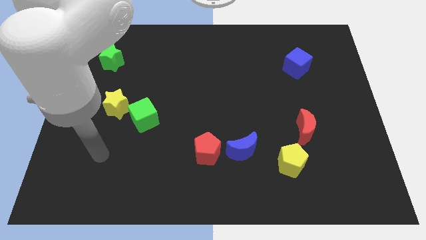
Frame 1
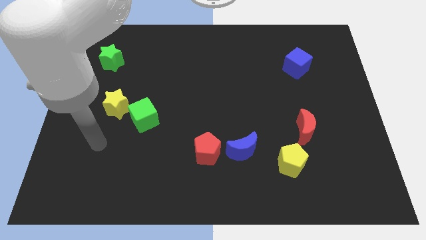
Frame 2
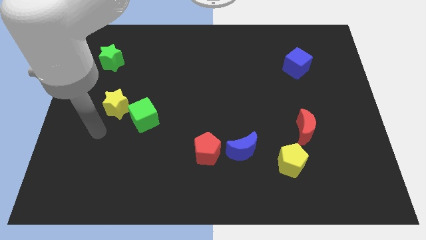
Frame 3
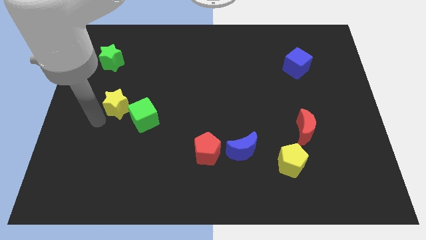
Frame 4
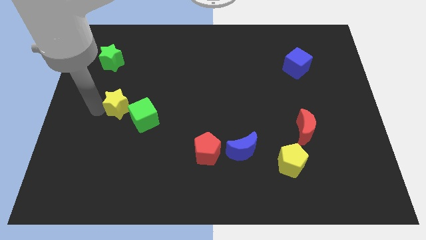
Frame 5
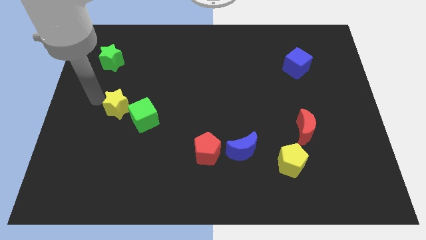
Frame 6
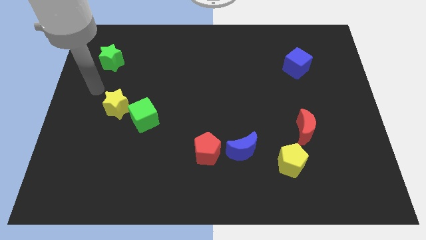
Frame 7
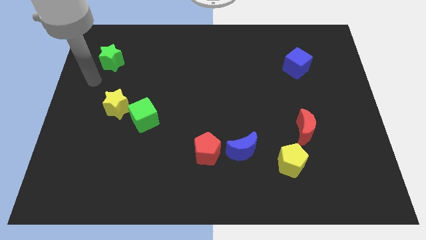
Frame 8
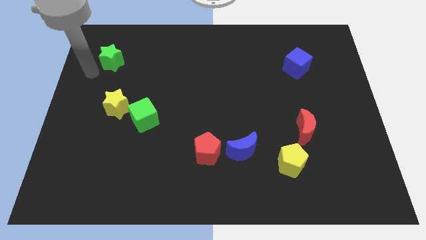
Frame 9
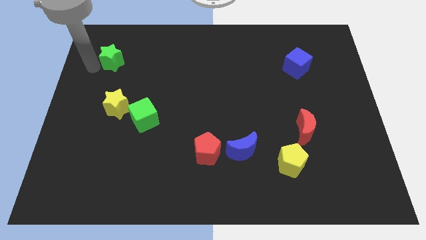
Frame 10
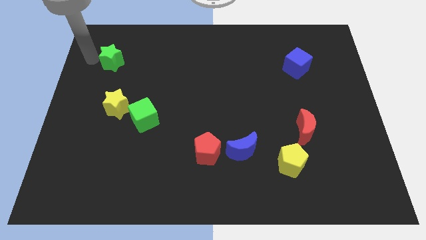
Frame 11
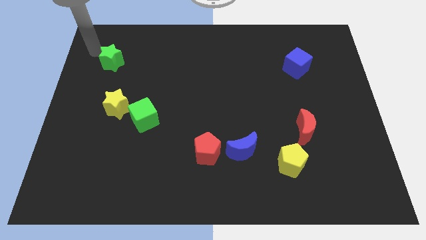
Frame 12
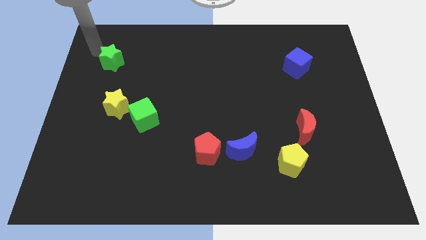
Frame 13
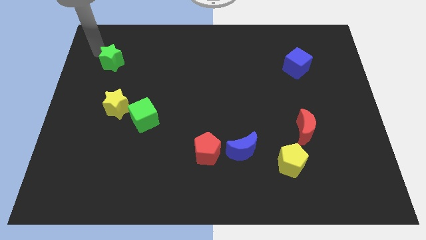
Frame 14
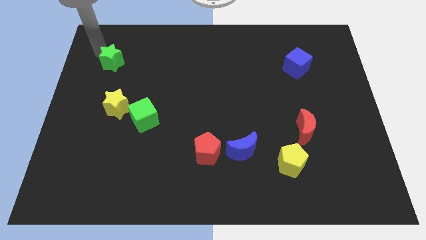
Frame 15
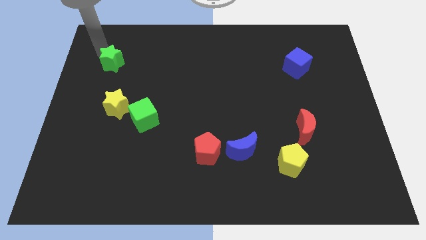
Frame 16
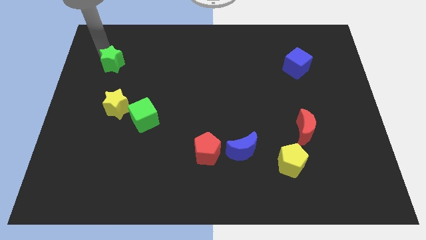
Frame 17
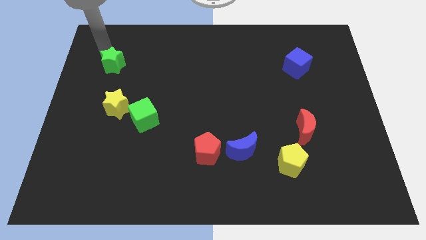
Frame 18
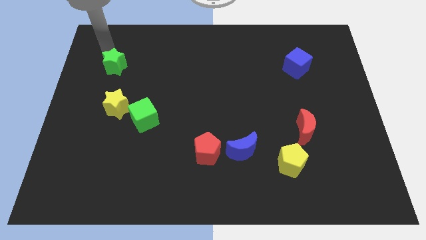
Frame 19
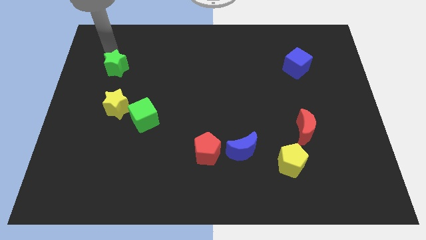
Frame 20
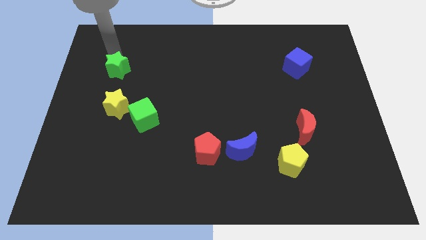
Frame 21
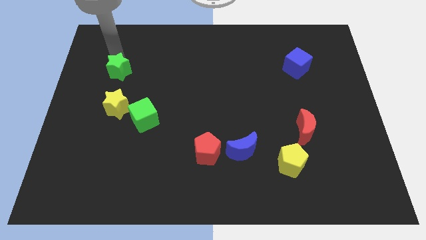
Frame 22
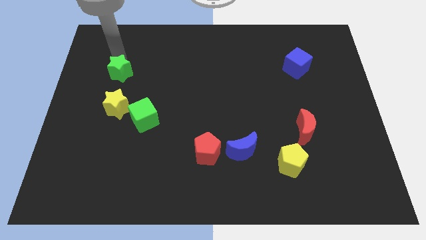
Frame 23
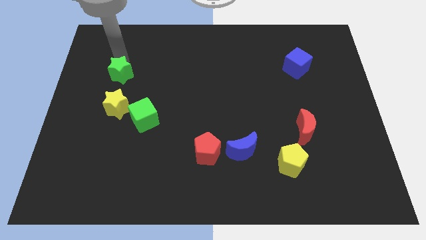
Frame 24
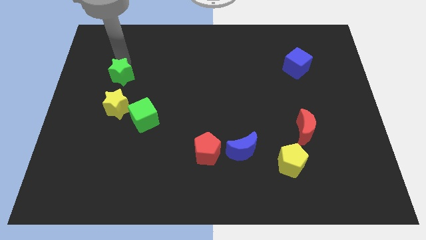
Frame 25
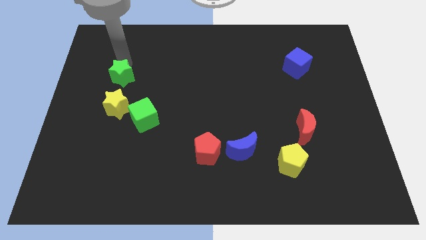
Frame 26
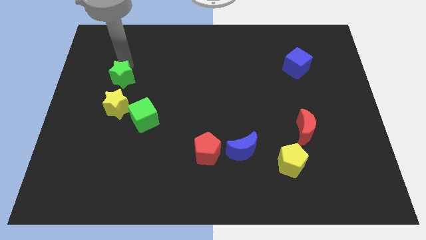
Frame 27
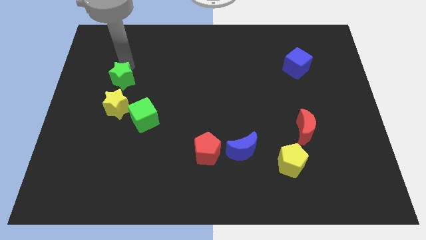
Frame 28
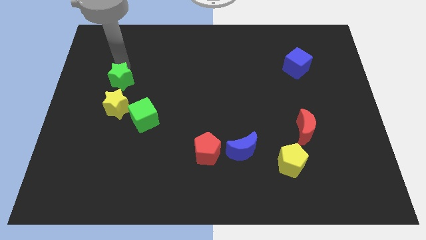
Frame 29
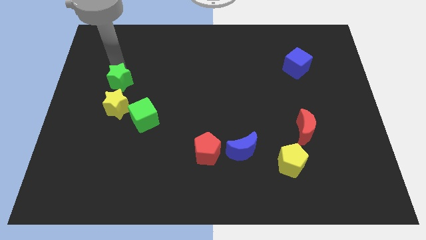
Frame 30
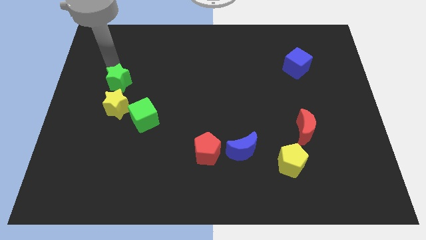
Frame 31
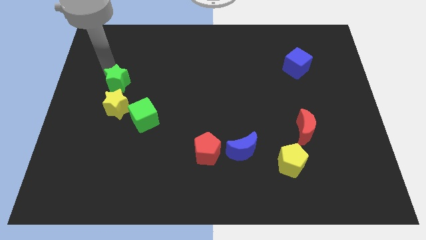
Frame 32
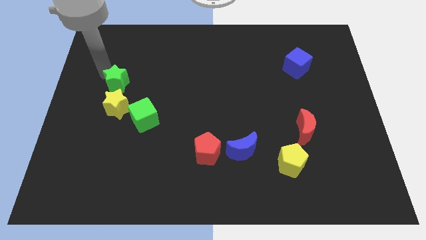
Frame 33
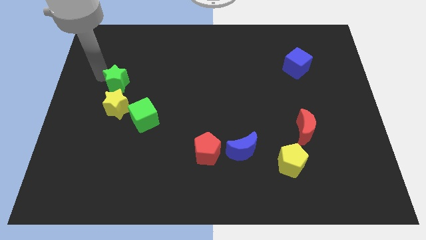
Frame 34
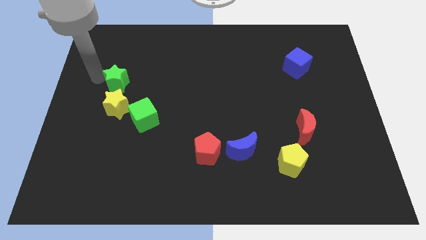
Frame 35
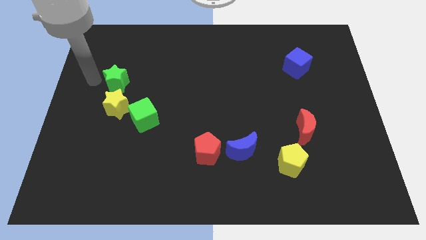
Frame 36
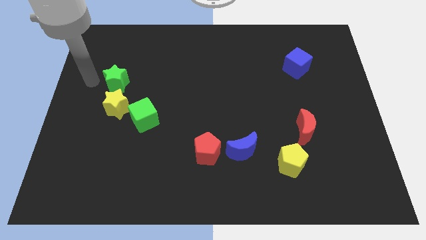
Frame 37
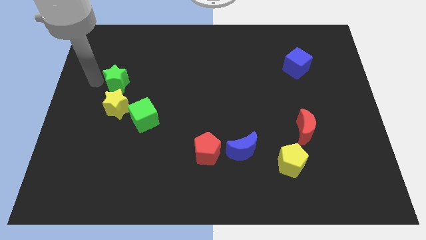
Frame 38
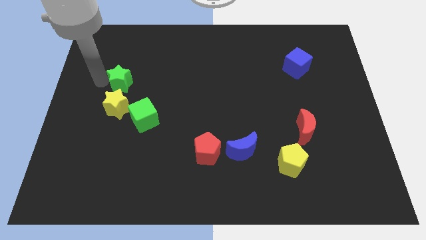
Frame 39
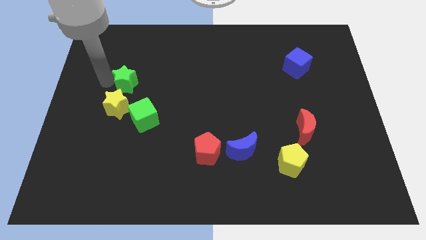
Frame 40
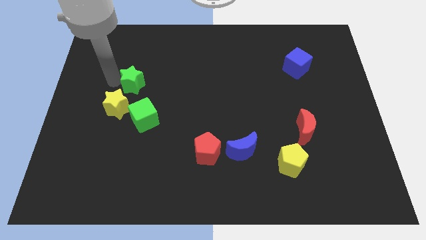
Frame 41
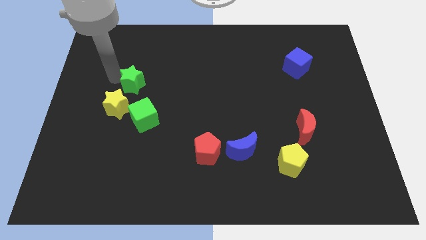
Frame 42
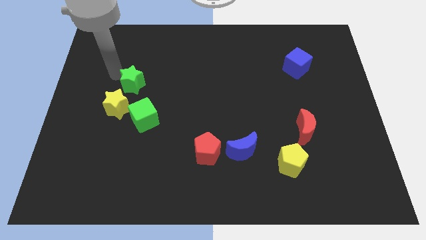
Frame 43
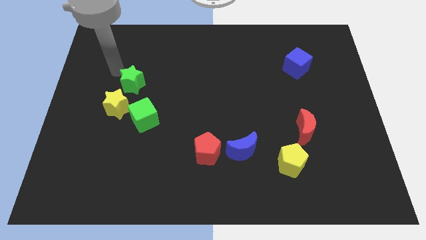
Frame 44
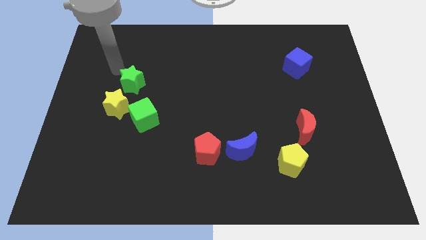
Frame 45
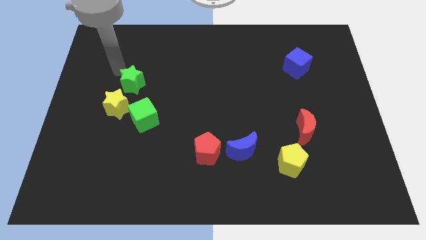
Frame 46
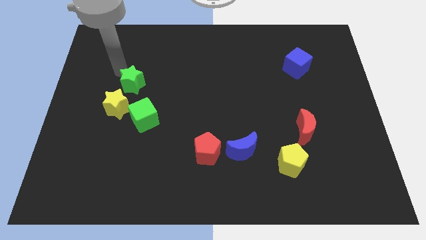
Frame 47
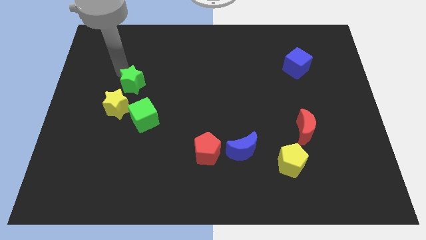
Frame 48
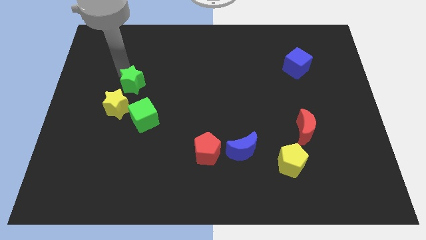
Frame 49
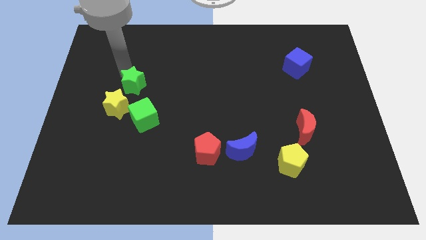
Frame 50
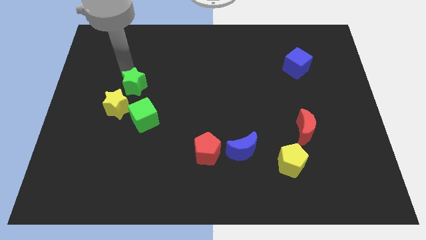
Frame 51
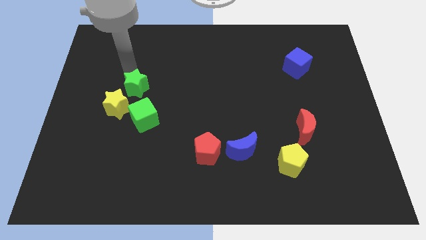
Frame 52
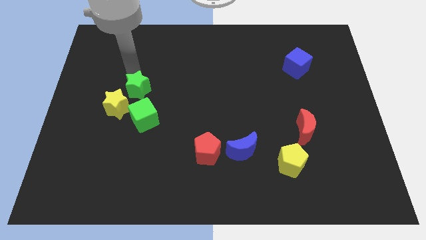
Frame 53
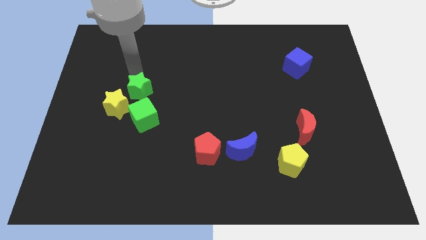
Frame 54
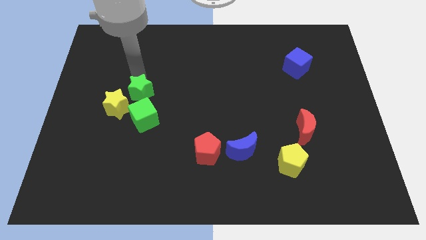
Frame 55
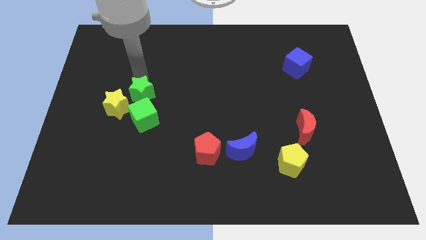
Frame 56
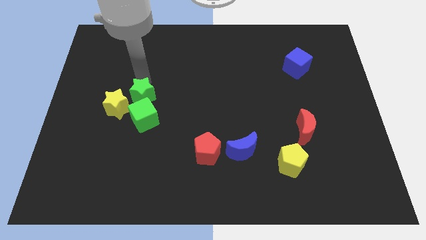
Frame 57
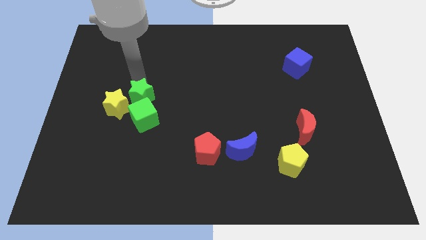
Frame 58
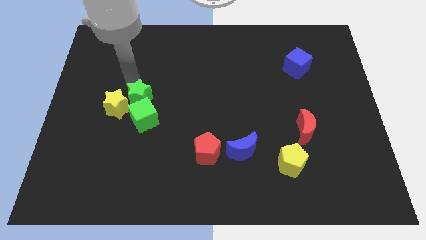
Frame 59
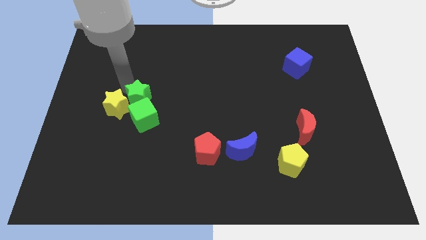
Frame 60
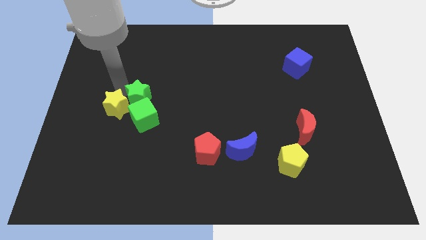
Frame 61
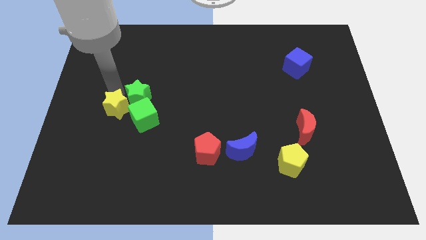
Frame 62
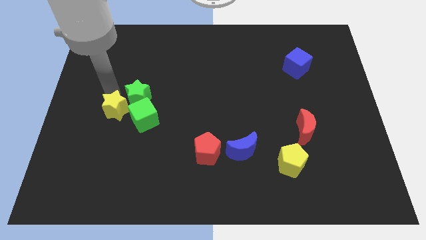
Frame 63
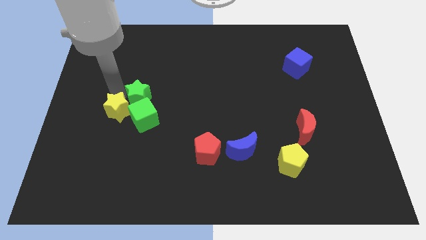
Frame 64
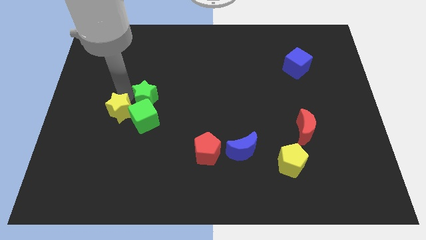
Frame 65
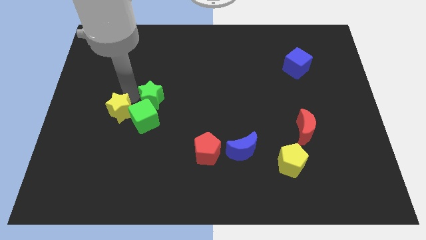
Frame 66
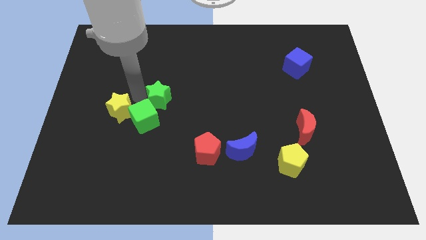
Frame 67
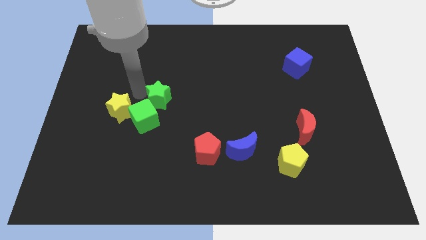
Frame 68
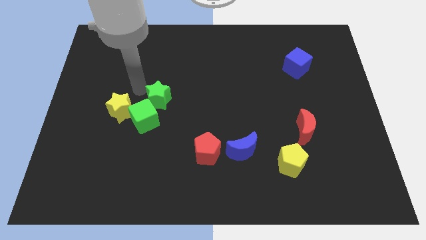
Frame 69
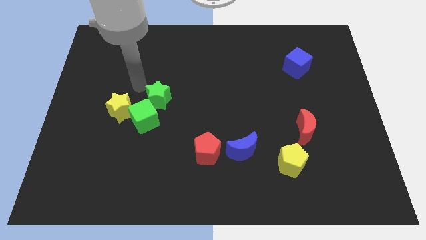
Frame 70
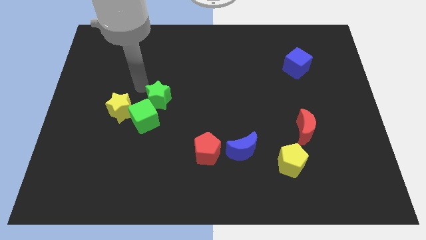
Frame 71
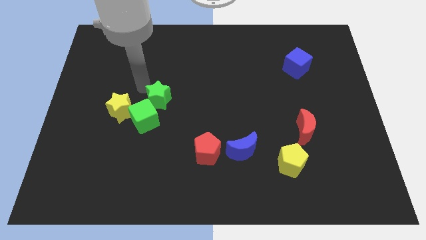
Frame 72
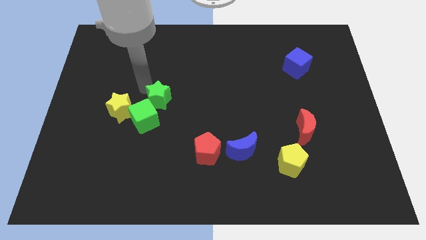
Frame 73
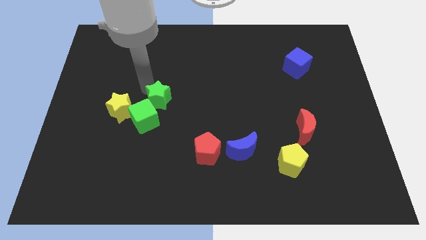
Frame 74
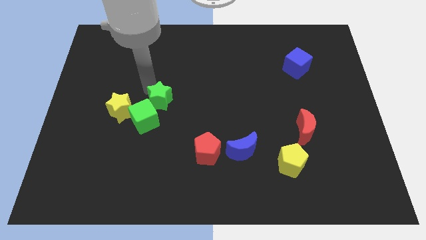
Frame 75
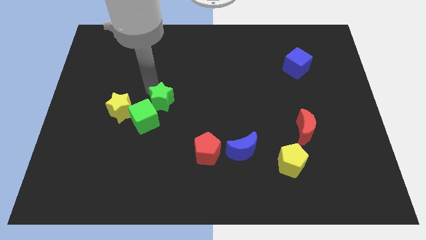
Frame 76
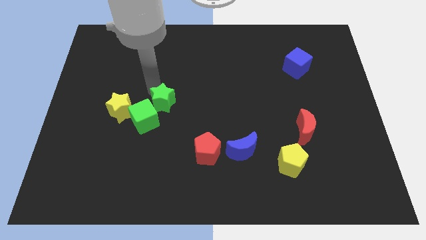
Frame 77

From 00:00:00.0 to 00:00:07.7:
move the green star down and then right

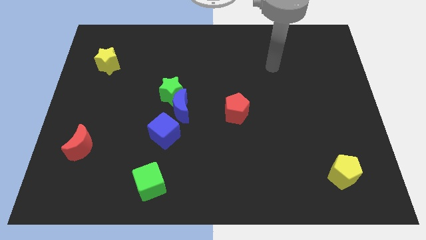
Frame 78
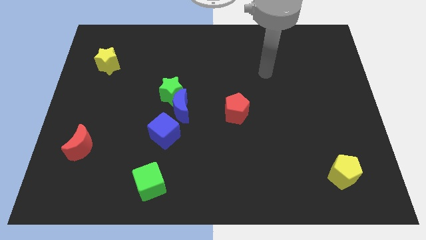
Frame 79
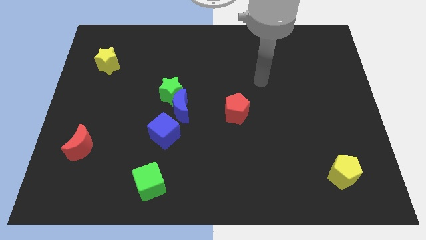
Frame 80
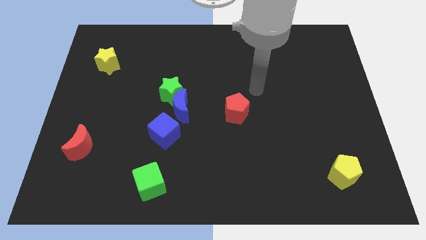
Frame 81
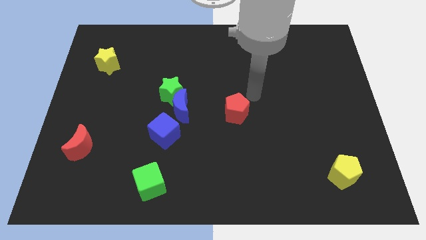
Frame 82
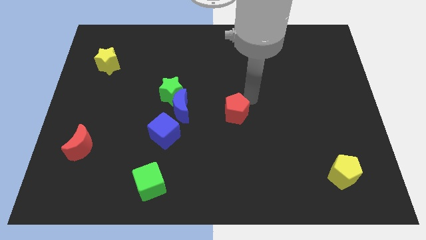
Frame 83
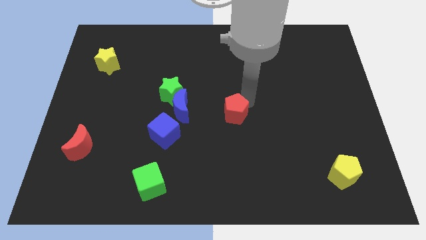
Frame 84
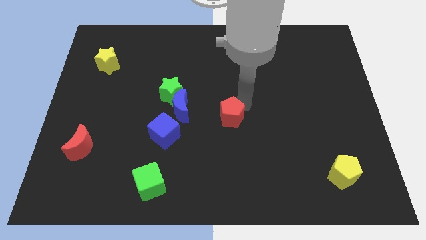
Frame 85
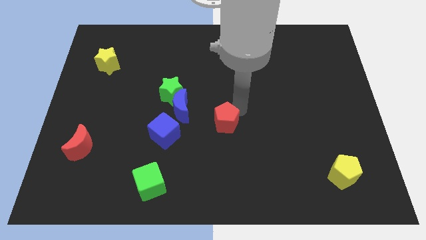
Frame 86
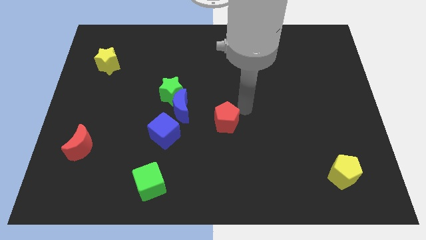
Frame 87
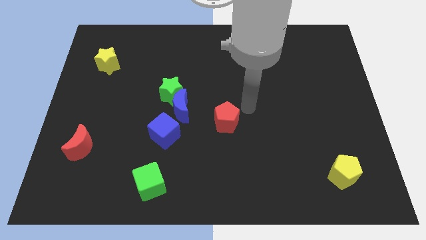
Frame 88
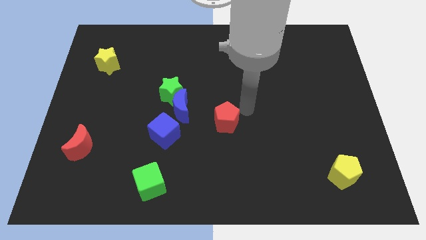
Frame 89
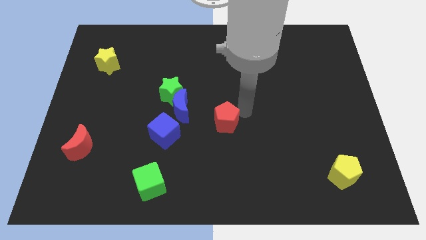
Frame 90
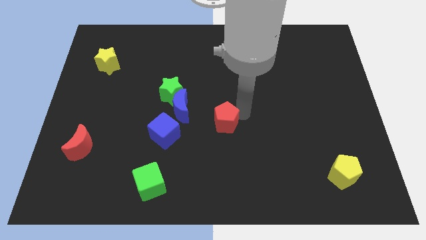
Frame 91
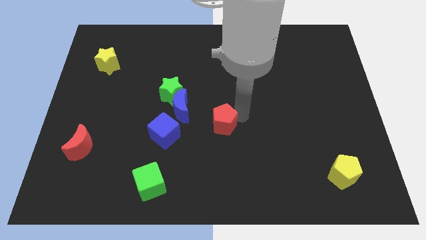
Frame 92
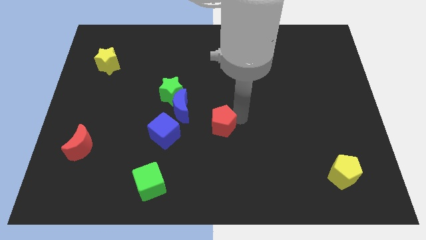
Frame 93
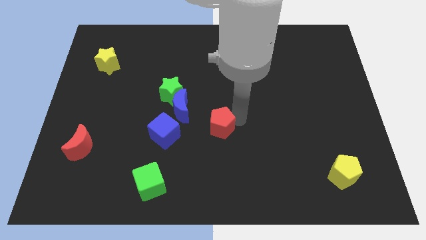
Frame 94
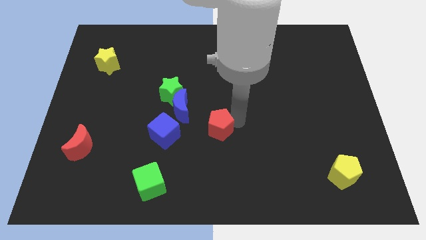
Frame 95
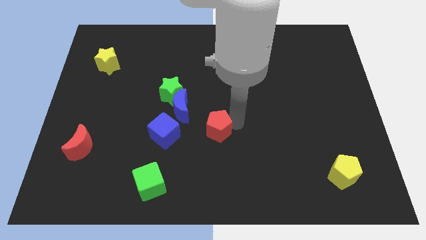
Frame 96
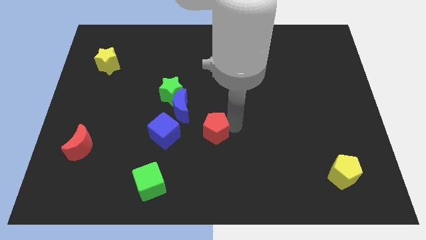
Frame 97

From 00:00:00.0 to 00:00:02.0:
slide the red pentagon a little bit downwards and then left
